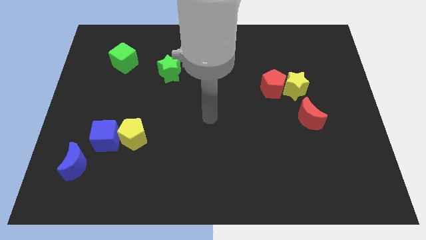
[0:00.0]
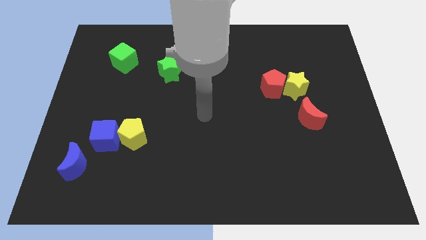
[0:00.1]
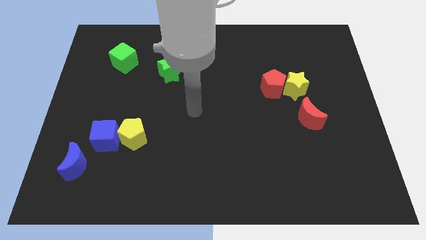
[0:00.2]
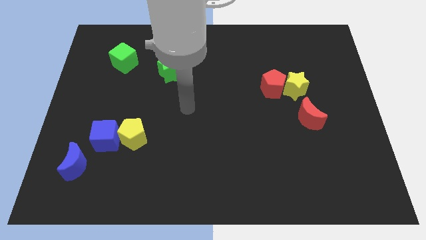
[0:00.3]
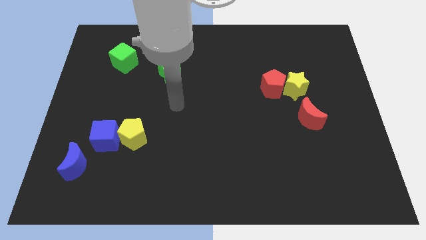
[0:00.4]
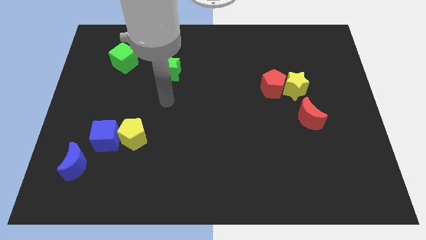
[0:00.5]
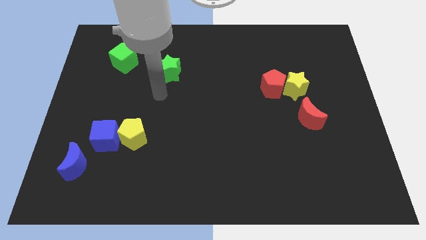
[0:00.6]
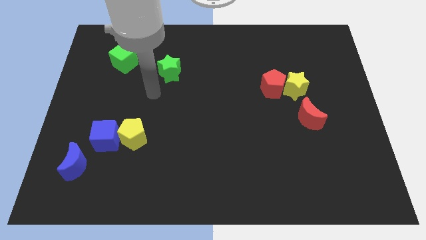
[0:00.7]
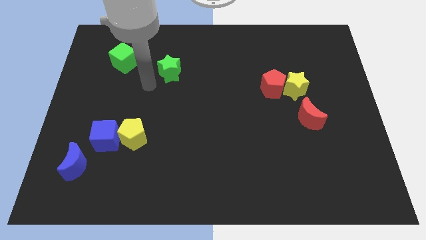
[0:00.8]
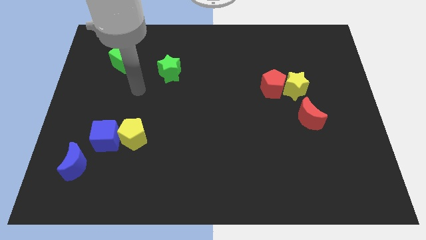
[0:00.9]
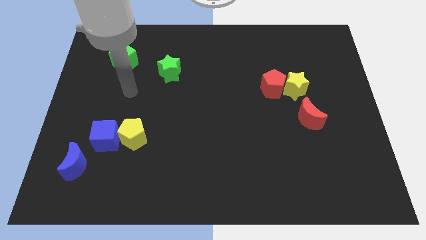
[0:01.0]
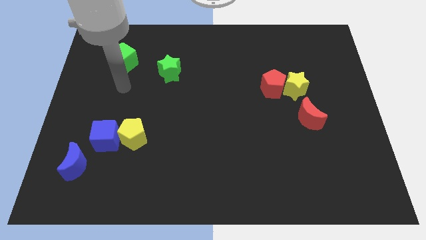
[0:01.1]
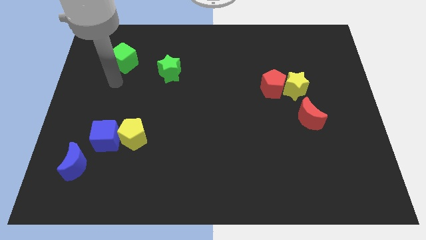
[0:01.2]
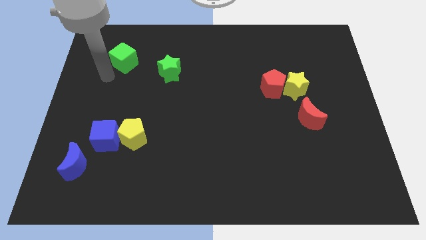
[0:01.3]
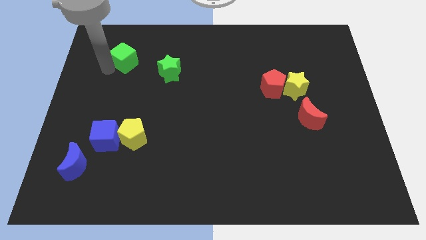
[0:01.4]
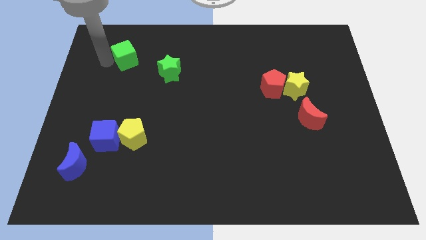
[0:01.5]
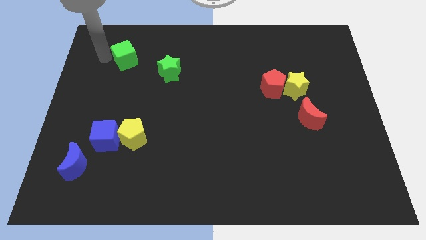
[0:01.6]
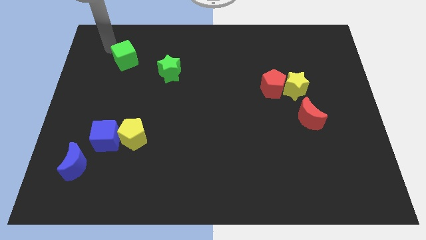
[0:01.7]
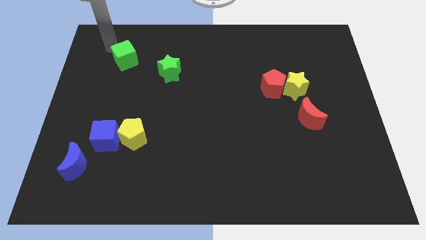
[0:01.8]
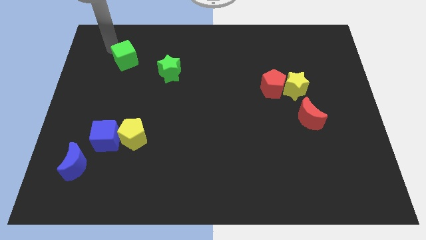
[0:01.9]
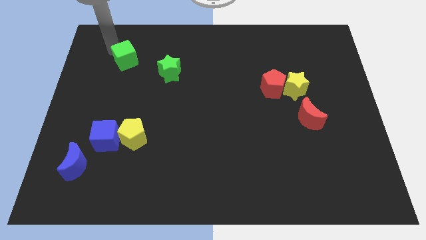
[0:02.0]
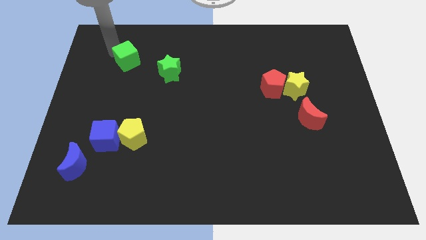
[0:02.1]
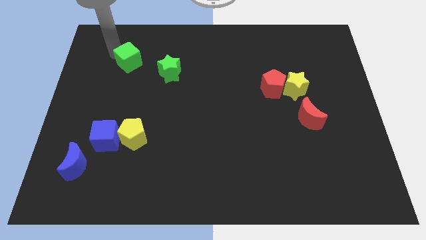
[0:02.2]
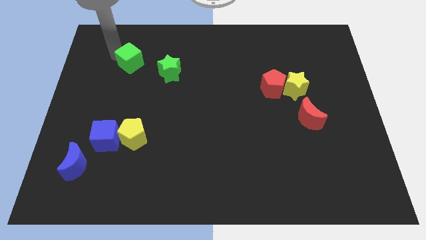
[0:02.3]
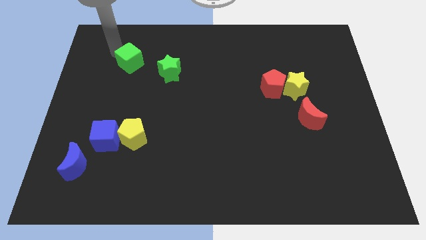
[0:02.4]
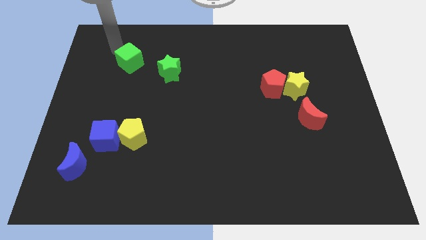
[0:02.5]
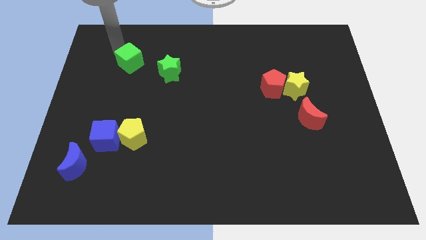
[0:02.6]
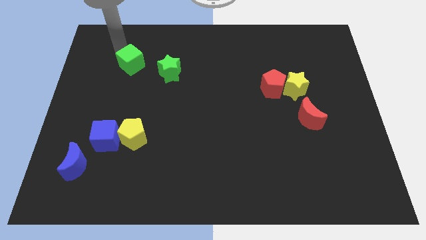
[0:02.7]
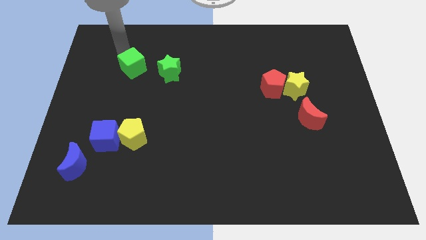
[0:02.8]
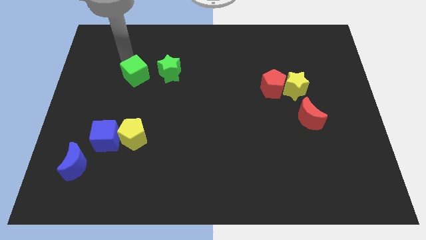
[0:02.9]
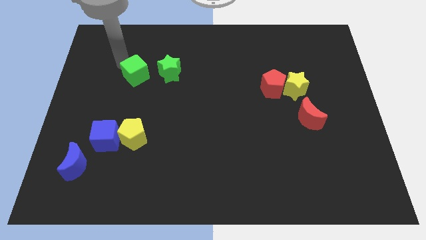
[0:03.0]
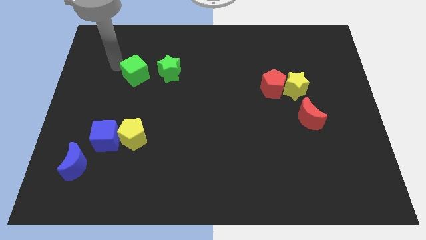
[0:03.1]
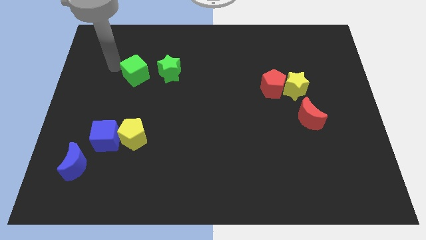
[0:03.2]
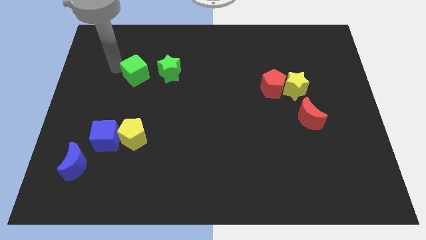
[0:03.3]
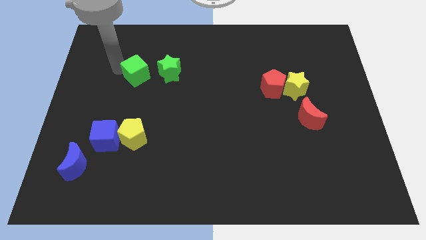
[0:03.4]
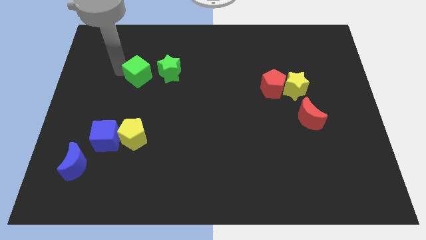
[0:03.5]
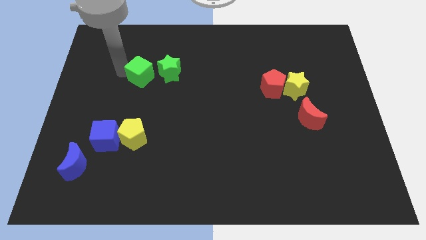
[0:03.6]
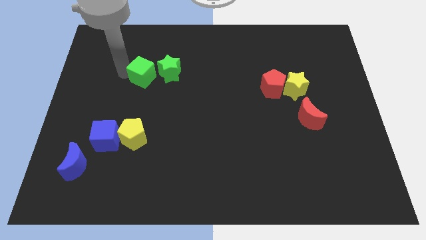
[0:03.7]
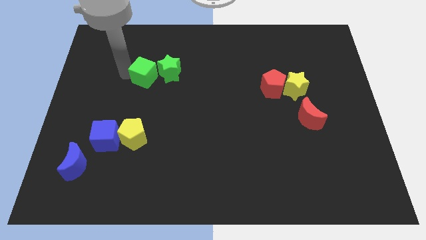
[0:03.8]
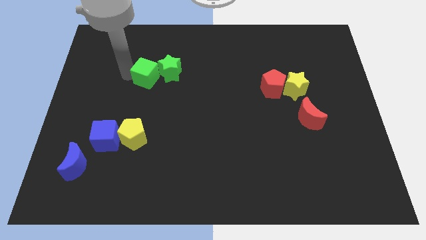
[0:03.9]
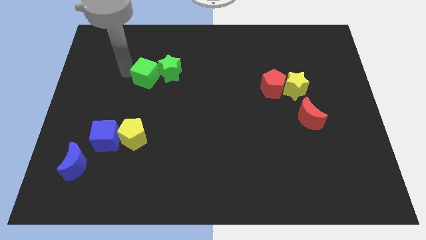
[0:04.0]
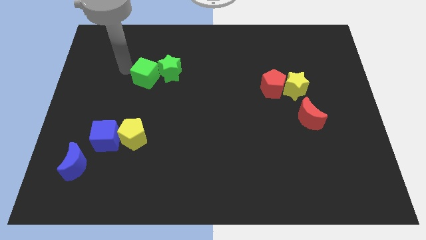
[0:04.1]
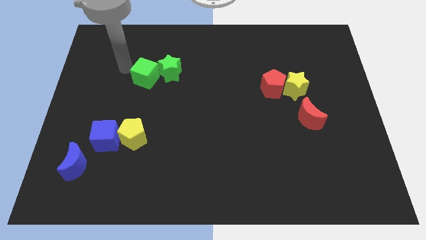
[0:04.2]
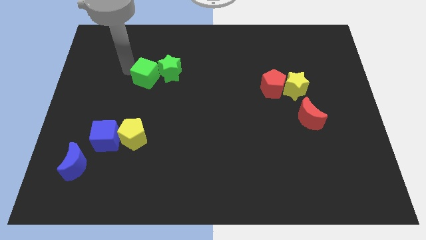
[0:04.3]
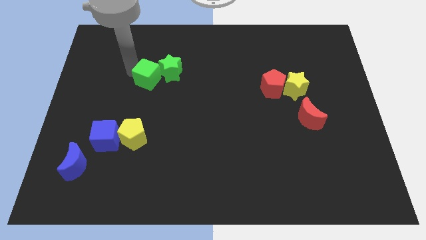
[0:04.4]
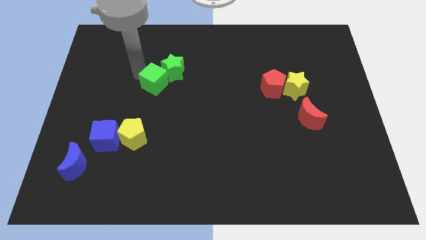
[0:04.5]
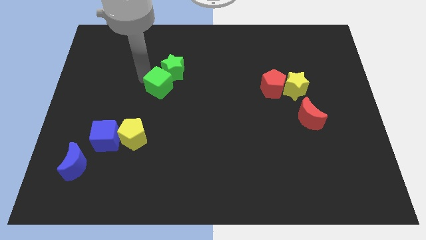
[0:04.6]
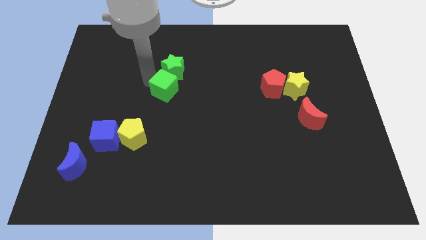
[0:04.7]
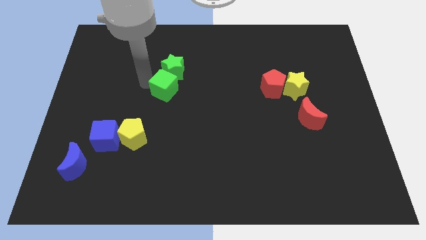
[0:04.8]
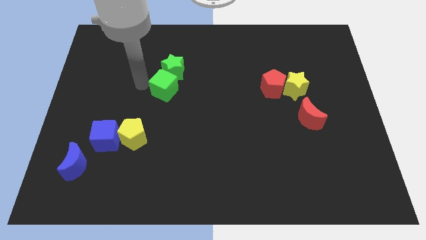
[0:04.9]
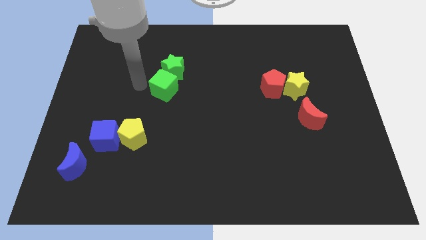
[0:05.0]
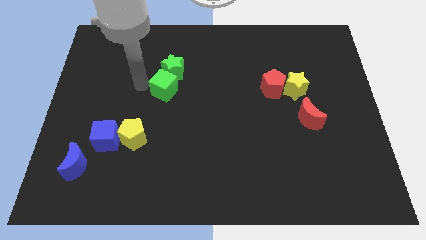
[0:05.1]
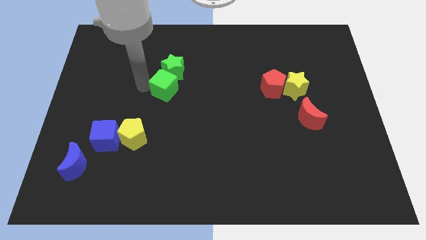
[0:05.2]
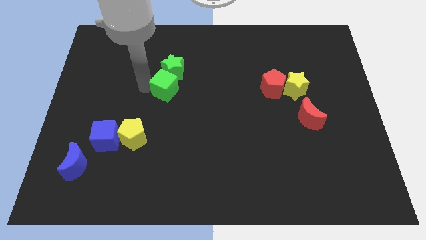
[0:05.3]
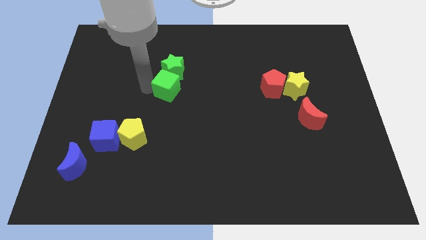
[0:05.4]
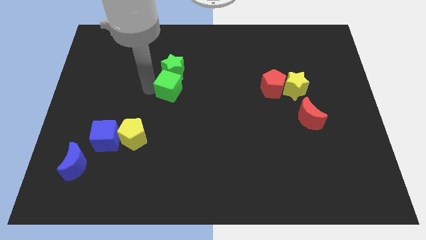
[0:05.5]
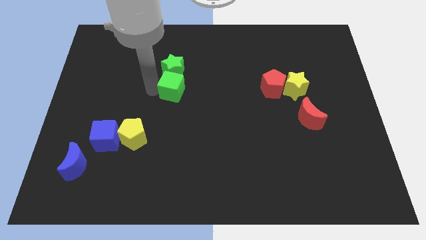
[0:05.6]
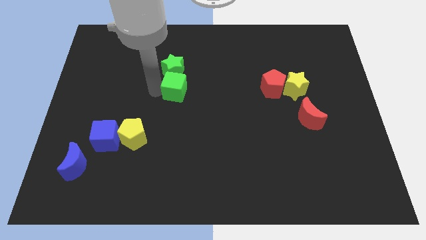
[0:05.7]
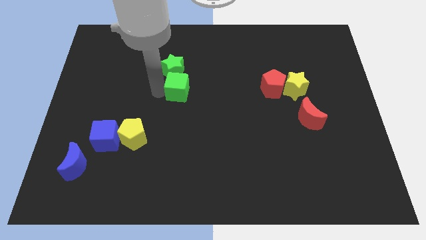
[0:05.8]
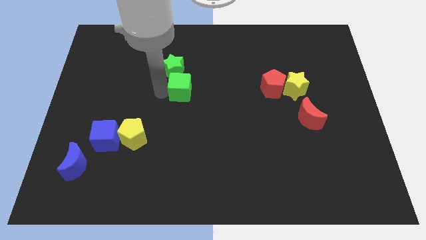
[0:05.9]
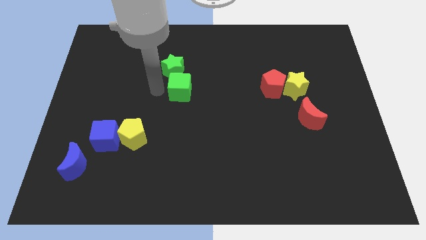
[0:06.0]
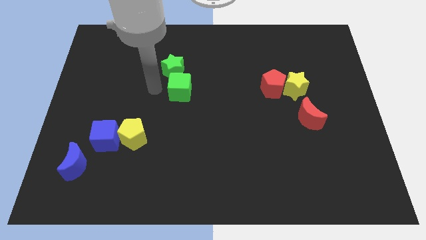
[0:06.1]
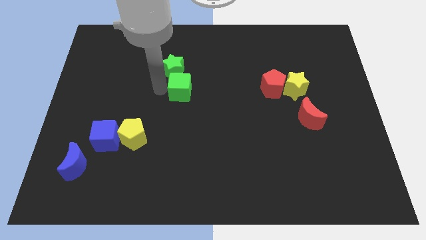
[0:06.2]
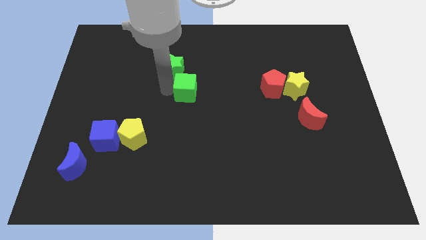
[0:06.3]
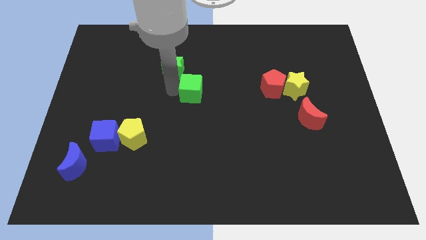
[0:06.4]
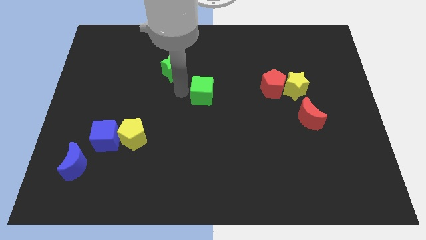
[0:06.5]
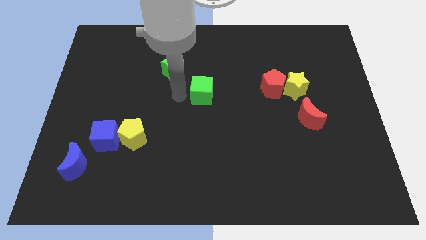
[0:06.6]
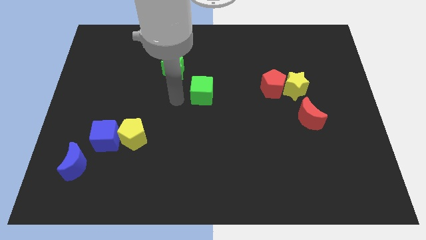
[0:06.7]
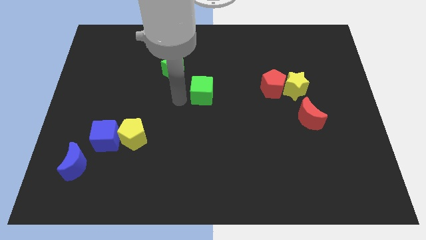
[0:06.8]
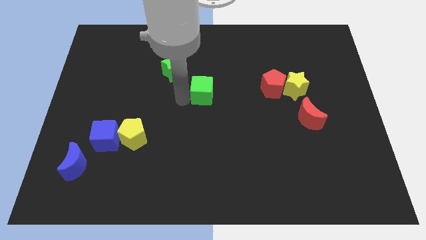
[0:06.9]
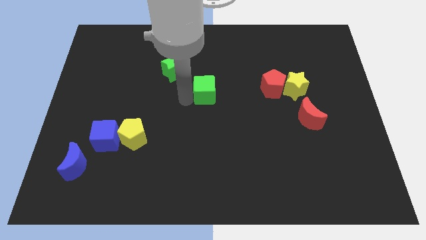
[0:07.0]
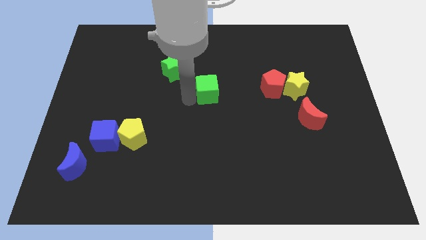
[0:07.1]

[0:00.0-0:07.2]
move the green cube left of the red pentagon
